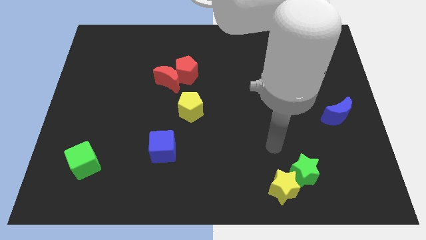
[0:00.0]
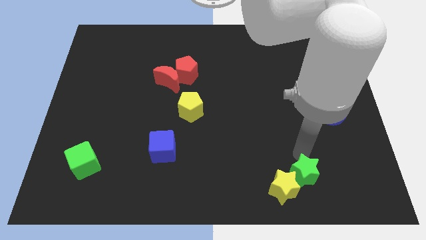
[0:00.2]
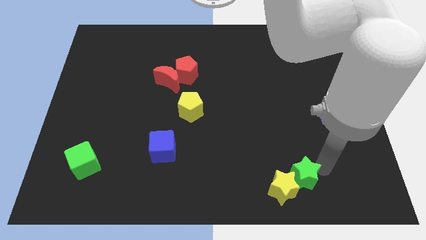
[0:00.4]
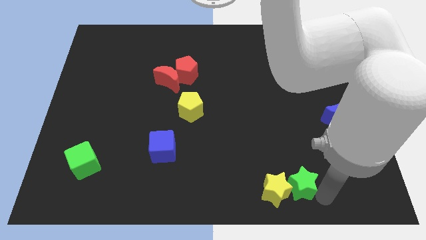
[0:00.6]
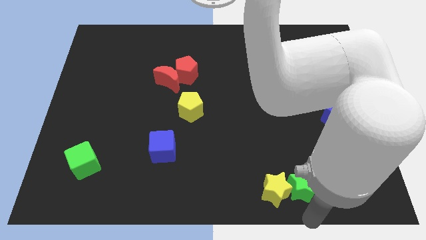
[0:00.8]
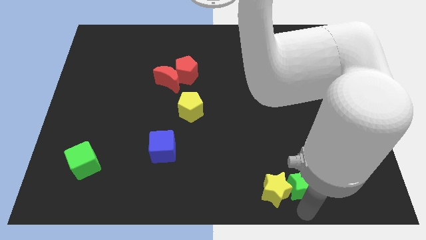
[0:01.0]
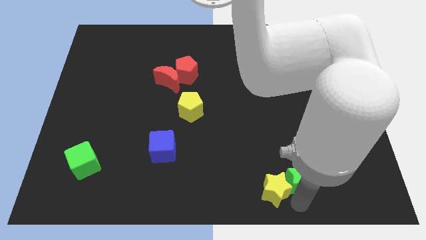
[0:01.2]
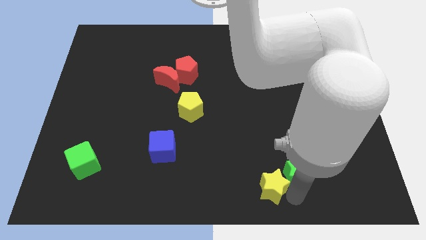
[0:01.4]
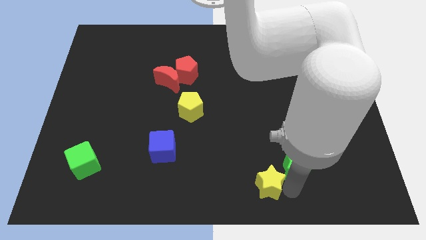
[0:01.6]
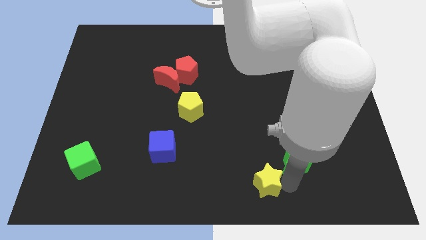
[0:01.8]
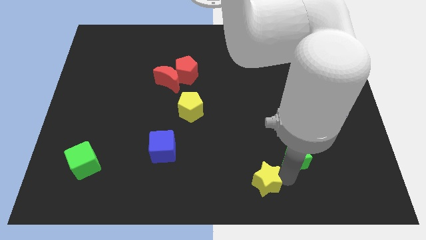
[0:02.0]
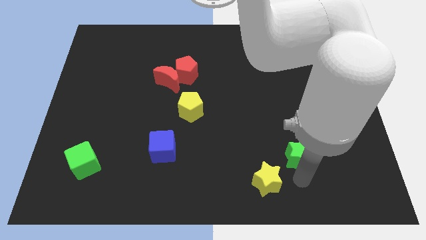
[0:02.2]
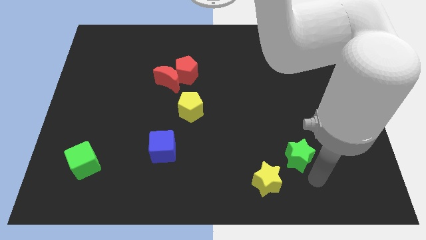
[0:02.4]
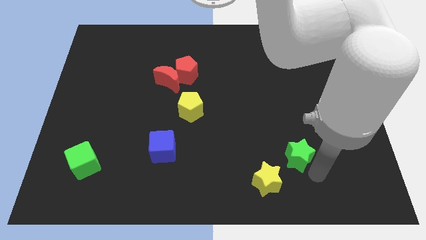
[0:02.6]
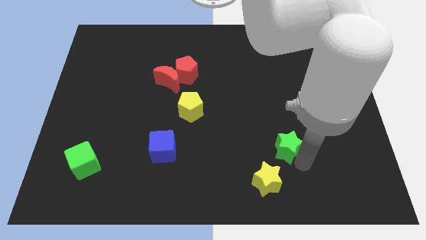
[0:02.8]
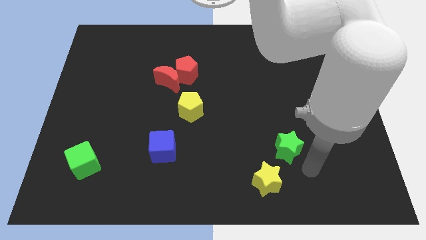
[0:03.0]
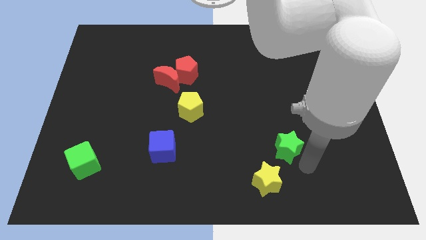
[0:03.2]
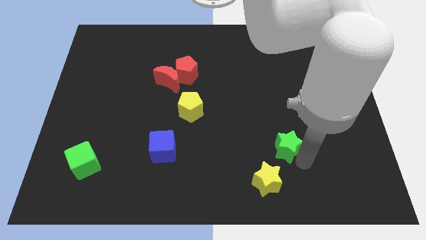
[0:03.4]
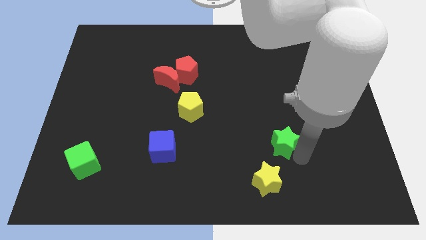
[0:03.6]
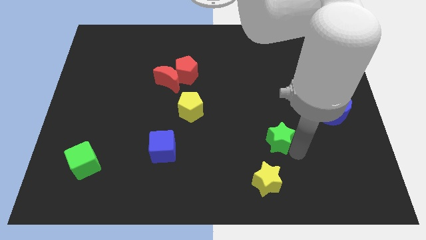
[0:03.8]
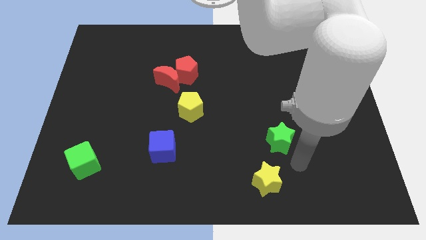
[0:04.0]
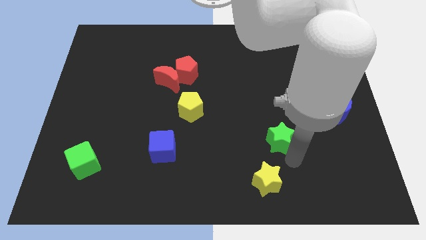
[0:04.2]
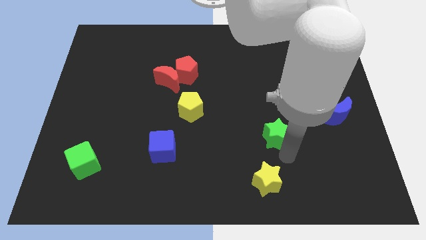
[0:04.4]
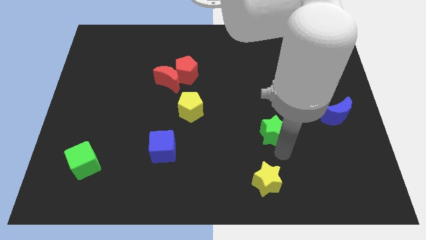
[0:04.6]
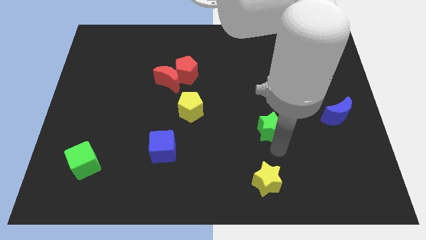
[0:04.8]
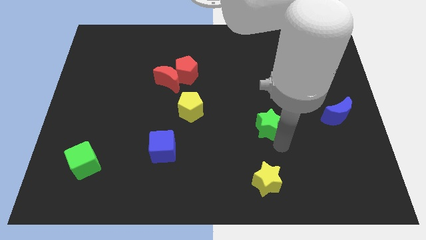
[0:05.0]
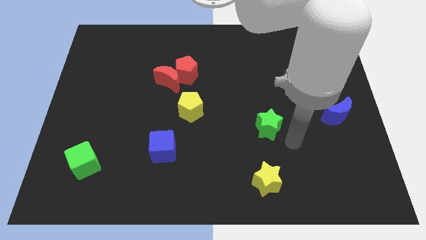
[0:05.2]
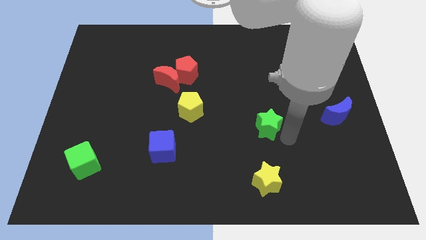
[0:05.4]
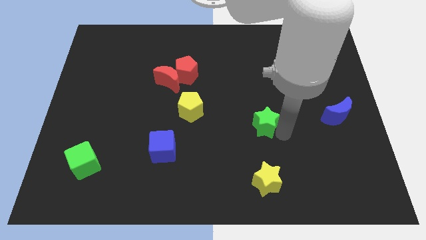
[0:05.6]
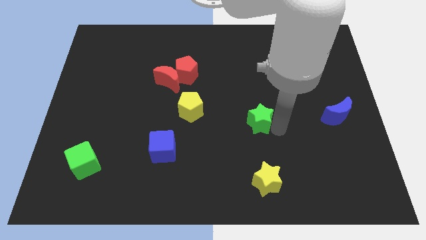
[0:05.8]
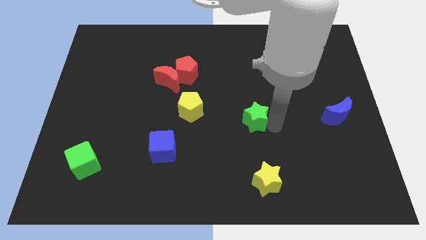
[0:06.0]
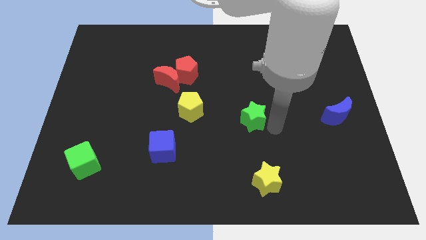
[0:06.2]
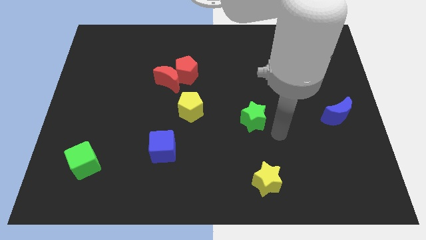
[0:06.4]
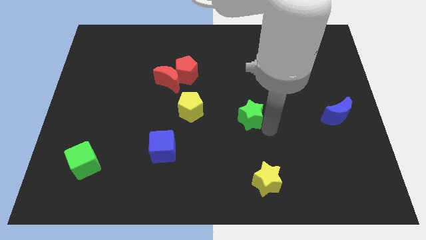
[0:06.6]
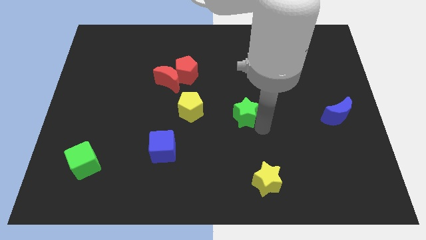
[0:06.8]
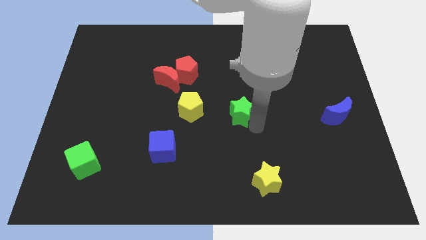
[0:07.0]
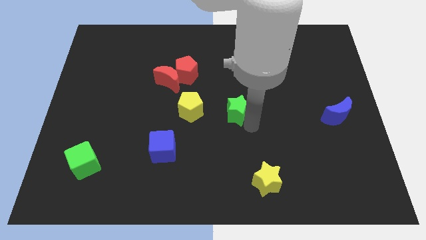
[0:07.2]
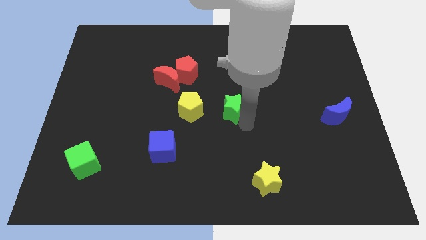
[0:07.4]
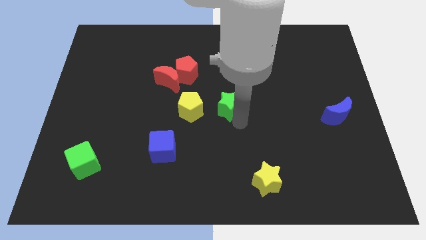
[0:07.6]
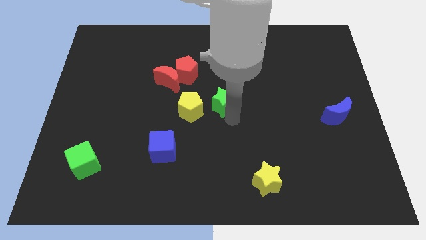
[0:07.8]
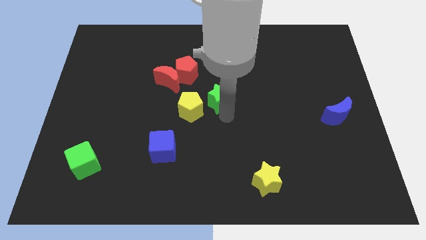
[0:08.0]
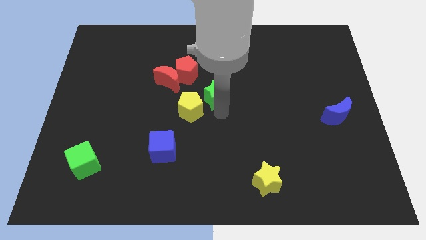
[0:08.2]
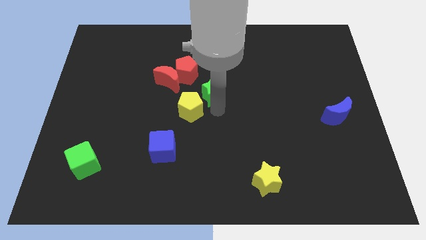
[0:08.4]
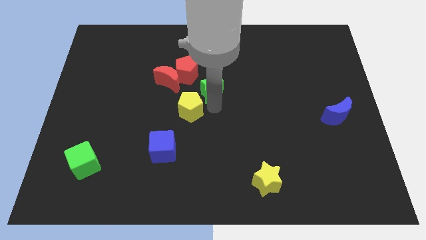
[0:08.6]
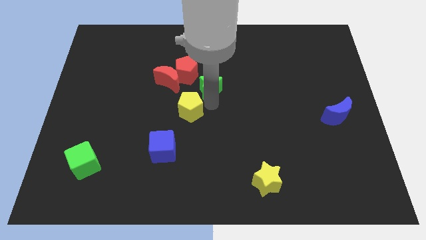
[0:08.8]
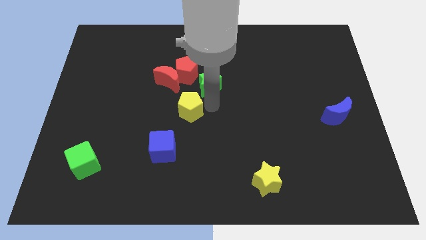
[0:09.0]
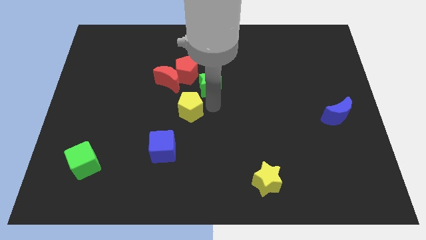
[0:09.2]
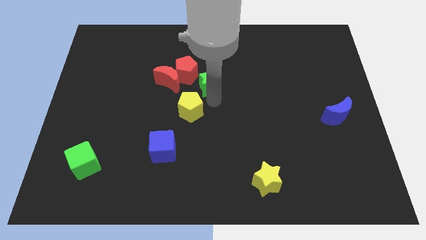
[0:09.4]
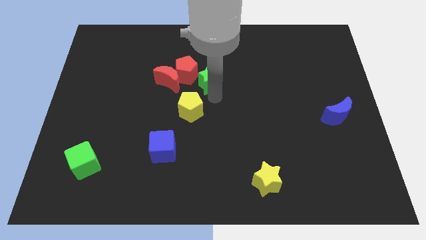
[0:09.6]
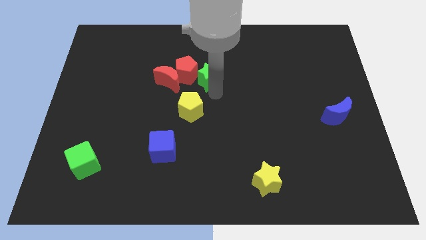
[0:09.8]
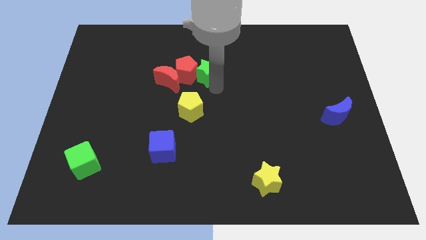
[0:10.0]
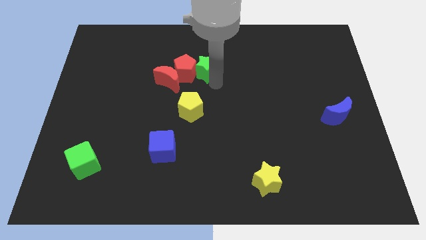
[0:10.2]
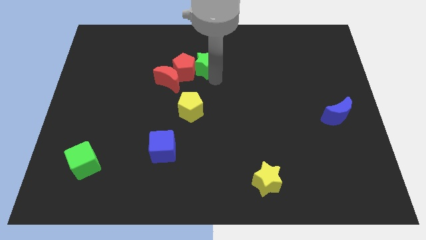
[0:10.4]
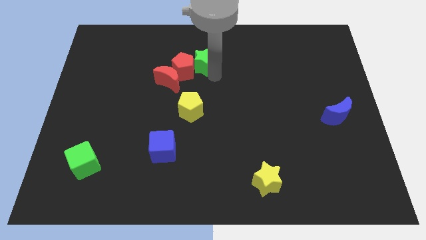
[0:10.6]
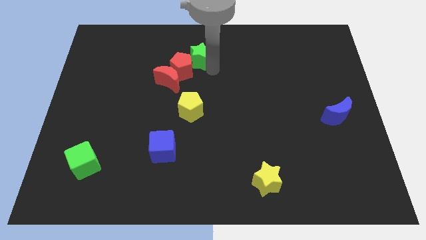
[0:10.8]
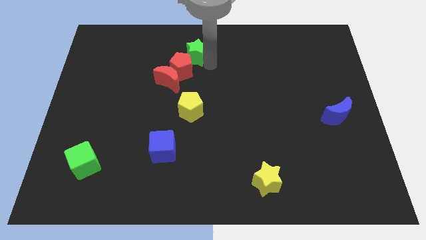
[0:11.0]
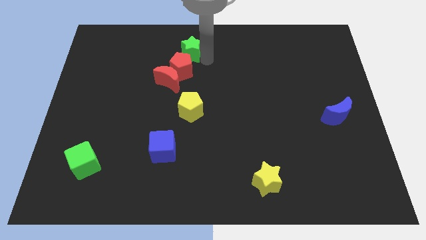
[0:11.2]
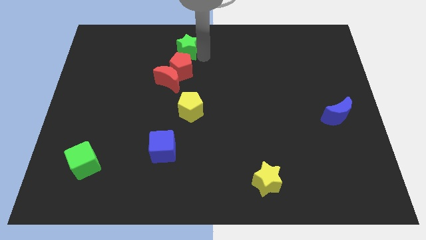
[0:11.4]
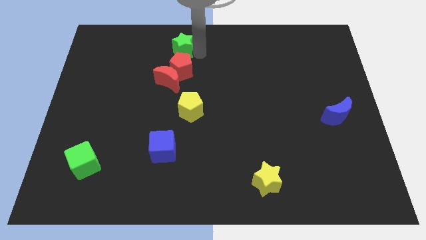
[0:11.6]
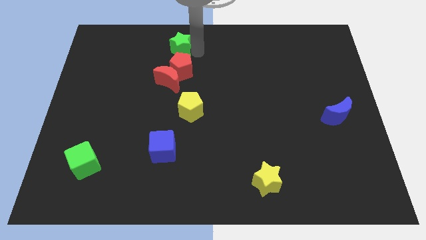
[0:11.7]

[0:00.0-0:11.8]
put the green star to the top left of the red pentagon

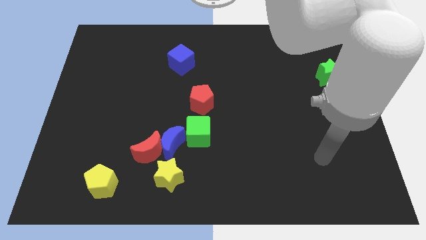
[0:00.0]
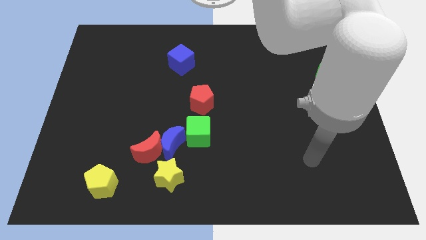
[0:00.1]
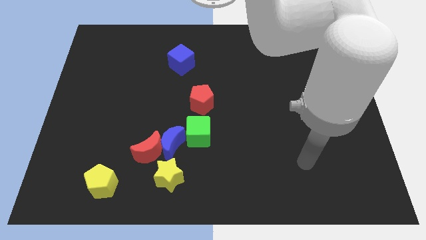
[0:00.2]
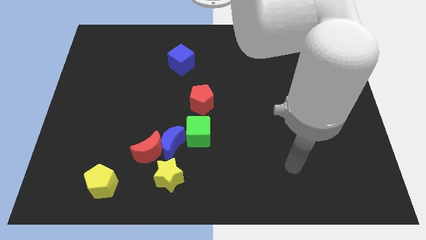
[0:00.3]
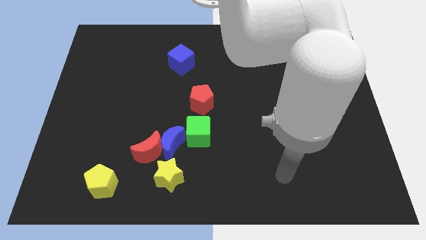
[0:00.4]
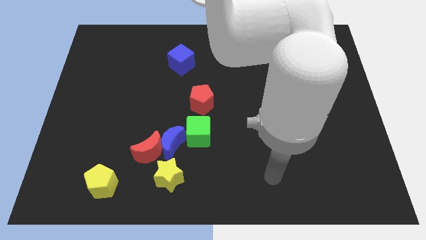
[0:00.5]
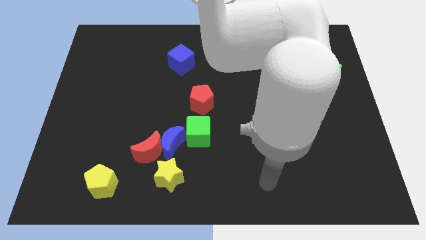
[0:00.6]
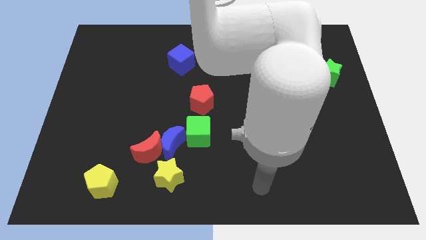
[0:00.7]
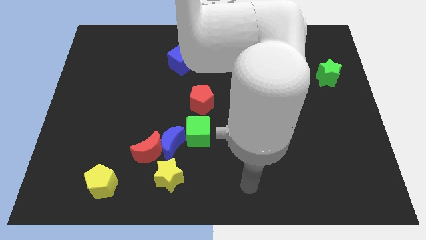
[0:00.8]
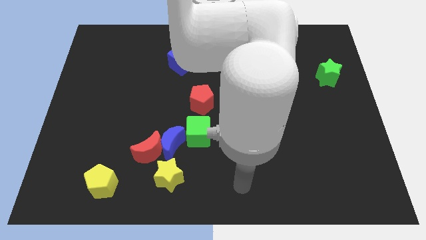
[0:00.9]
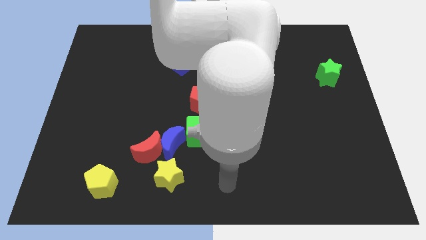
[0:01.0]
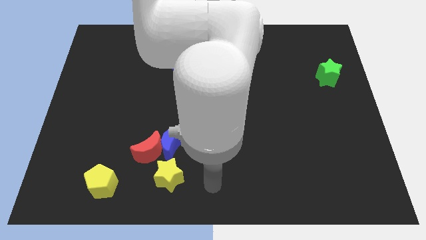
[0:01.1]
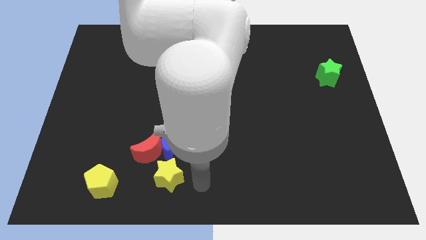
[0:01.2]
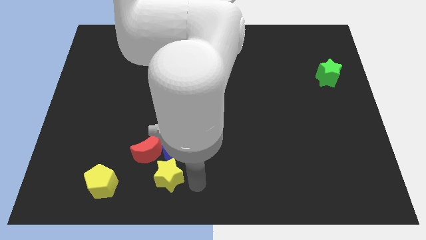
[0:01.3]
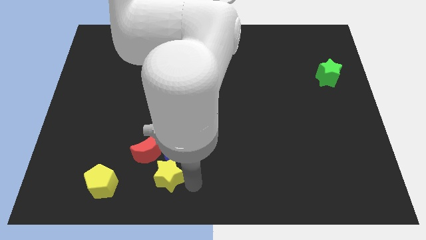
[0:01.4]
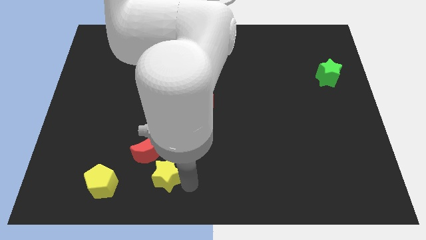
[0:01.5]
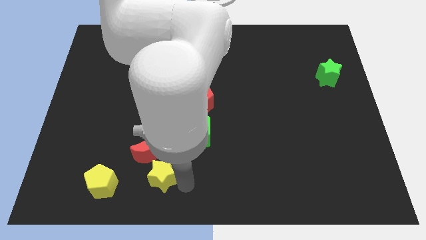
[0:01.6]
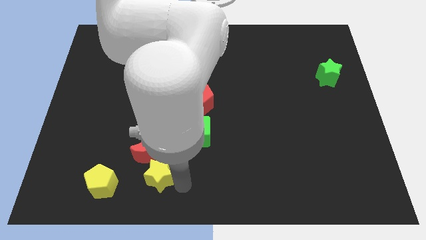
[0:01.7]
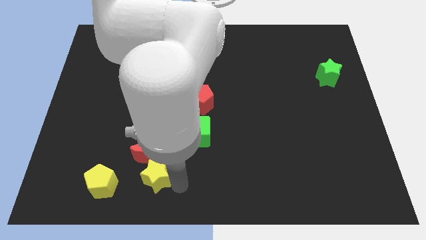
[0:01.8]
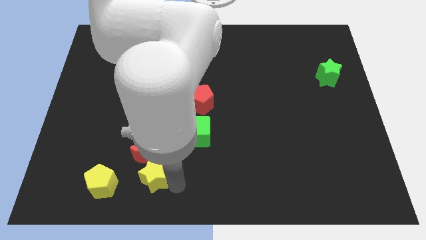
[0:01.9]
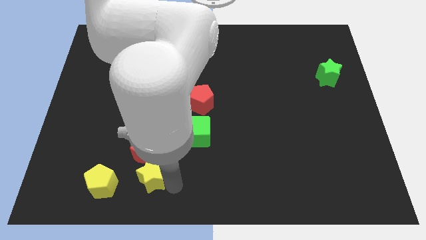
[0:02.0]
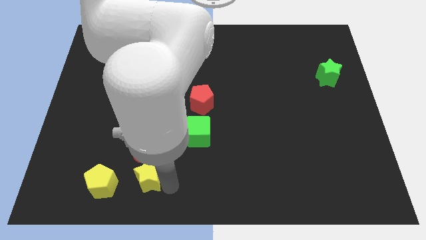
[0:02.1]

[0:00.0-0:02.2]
move the yellow star to the bottom left side of the red moon
